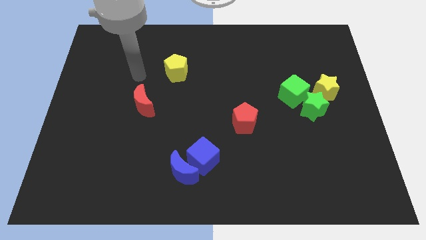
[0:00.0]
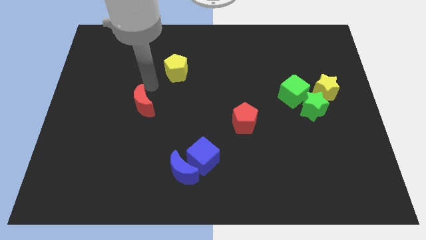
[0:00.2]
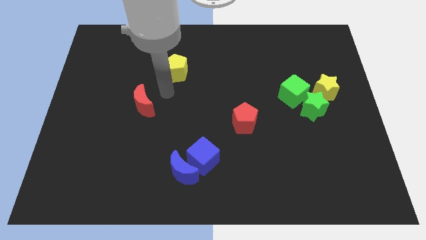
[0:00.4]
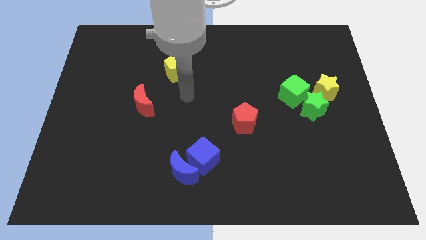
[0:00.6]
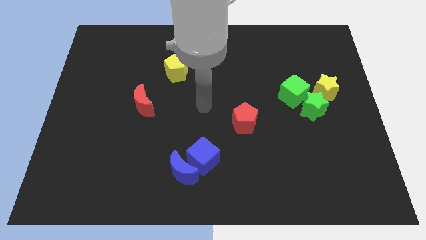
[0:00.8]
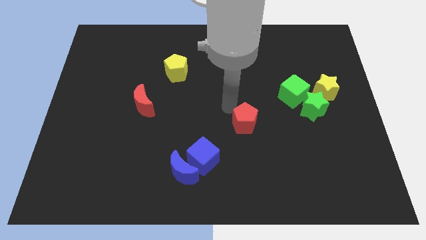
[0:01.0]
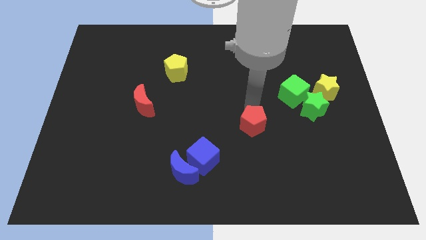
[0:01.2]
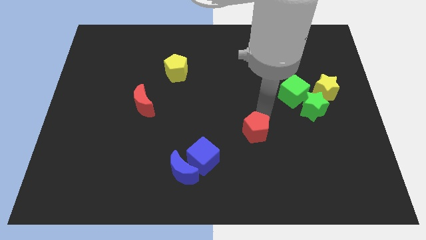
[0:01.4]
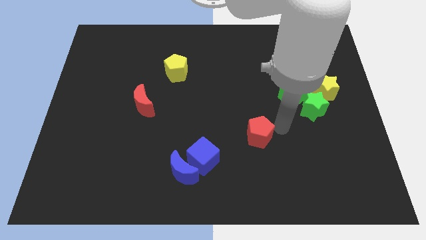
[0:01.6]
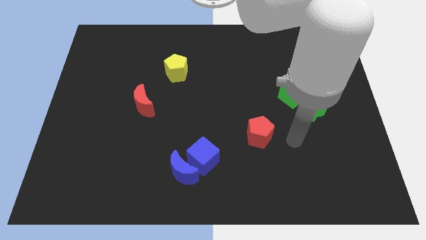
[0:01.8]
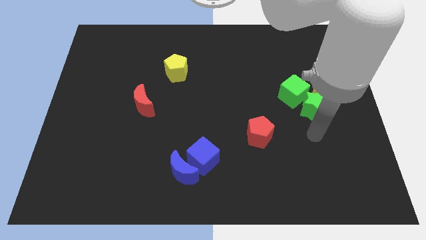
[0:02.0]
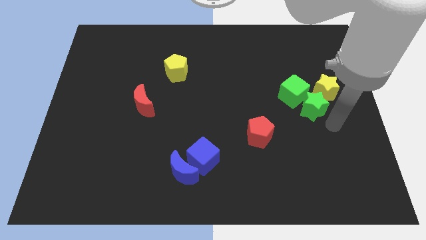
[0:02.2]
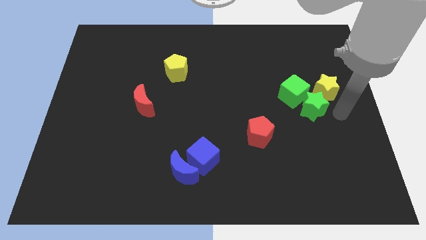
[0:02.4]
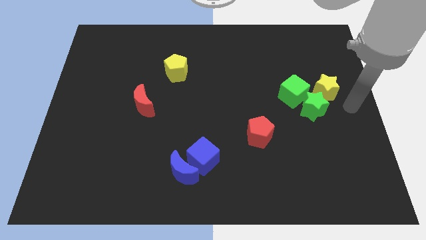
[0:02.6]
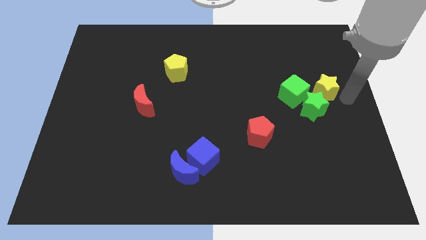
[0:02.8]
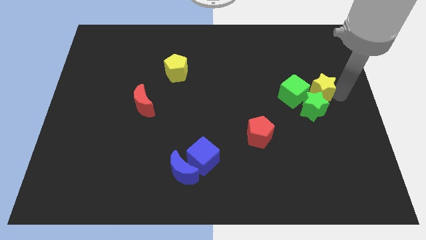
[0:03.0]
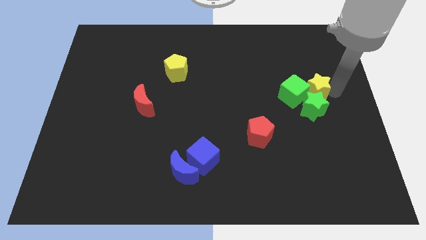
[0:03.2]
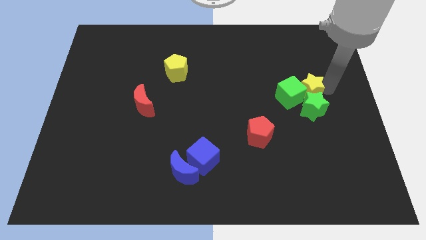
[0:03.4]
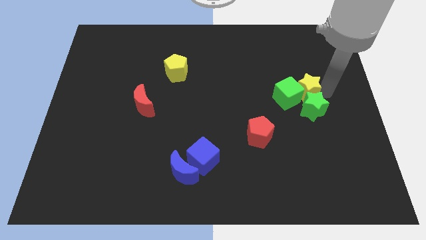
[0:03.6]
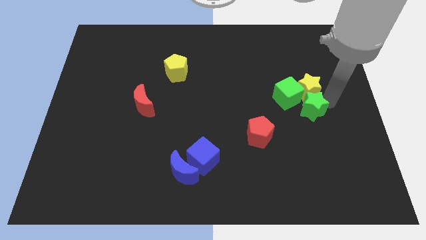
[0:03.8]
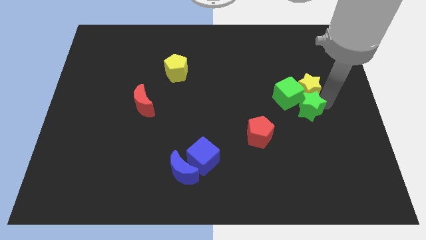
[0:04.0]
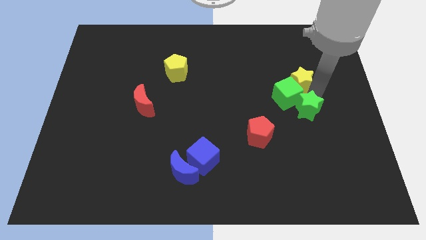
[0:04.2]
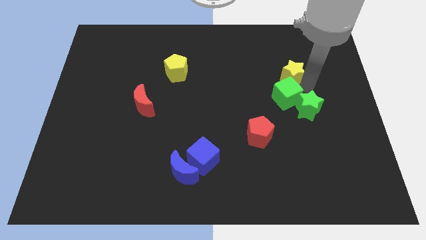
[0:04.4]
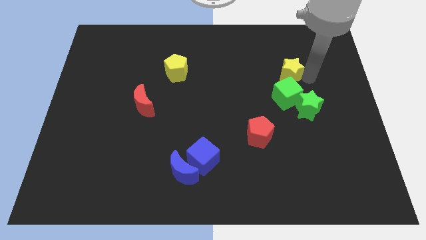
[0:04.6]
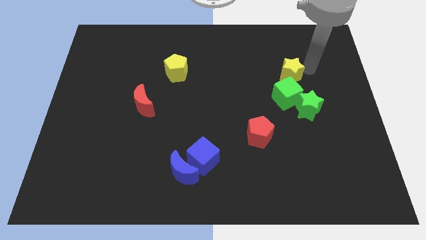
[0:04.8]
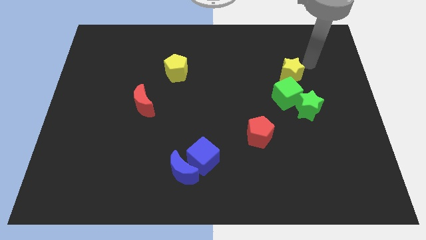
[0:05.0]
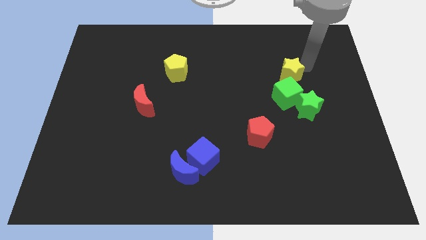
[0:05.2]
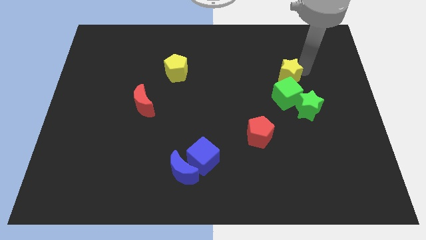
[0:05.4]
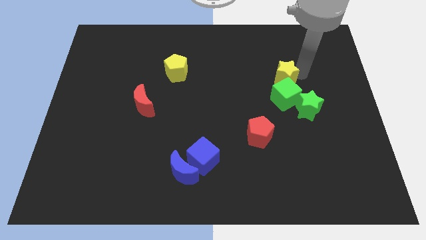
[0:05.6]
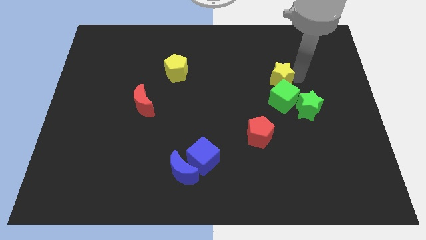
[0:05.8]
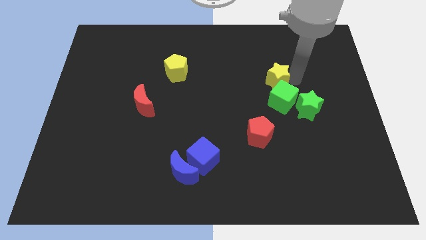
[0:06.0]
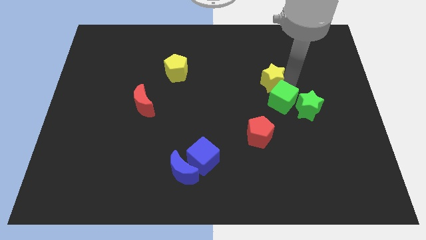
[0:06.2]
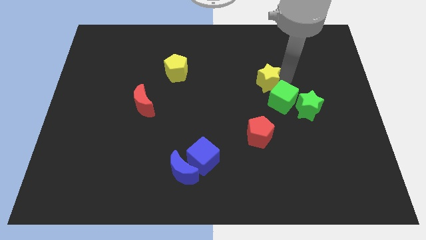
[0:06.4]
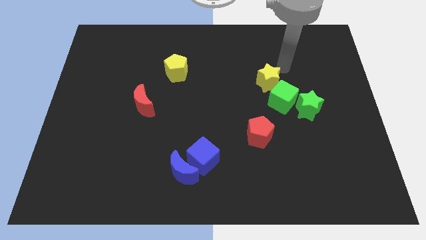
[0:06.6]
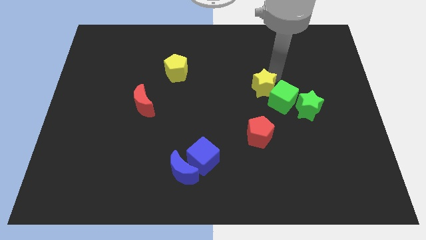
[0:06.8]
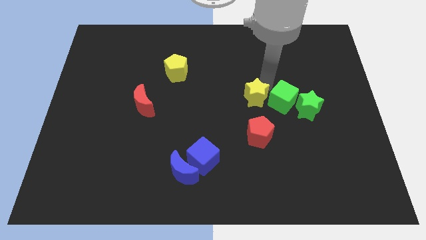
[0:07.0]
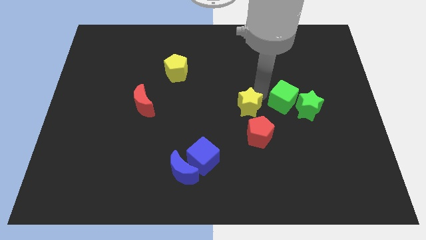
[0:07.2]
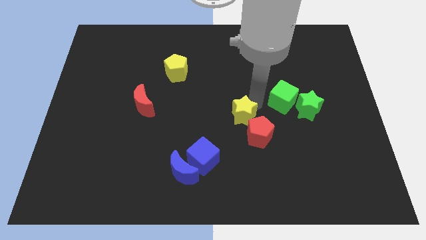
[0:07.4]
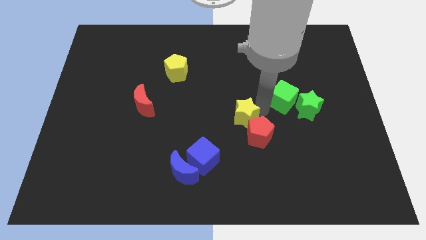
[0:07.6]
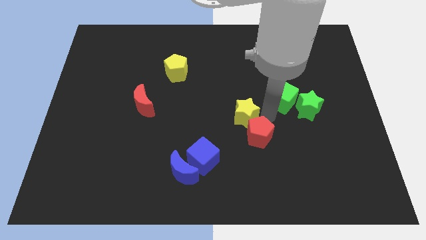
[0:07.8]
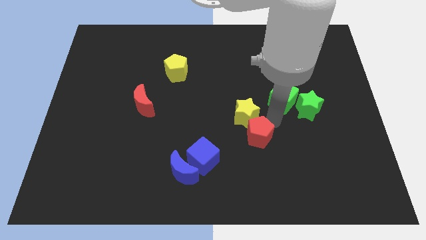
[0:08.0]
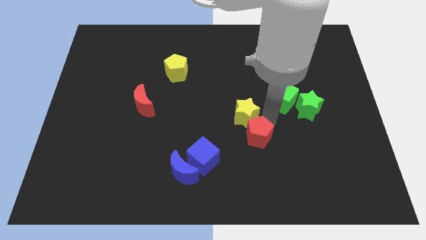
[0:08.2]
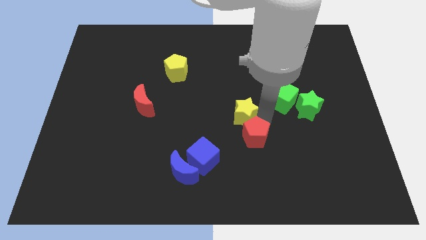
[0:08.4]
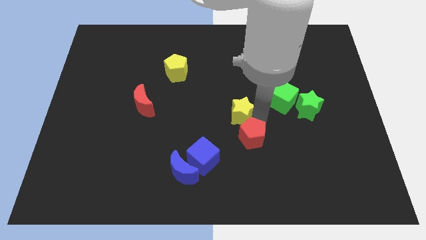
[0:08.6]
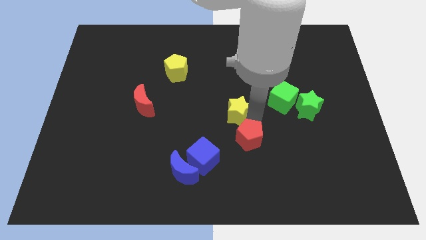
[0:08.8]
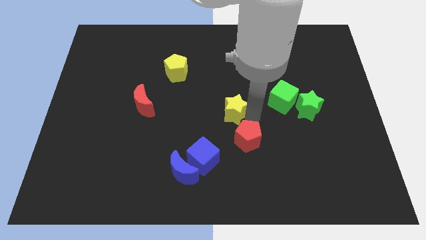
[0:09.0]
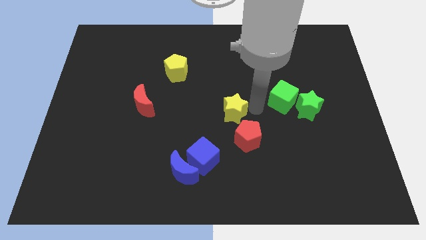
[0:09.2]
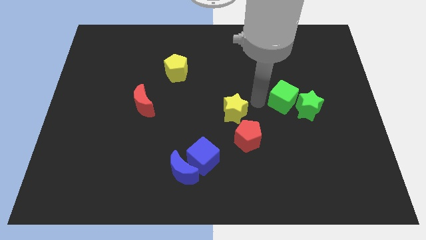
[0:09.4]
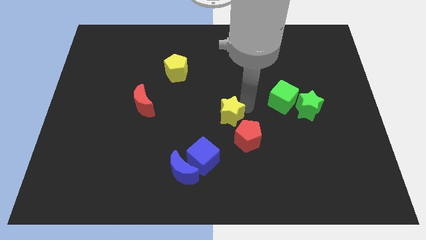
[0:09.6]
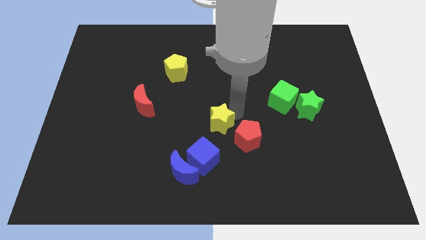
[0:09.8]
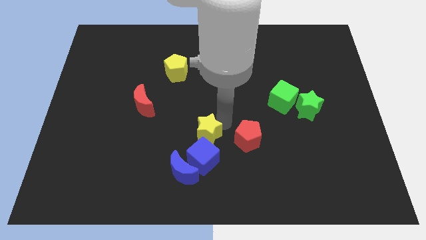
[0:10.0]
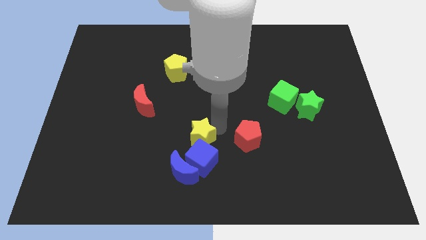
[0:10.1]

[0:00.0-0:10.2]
put the yellow star to the top left side of the blue cube

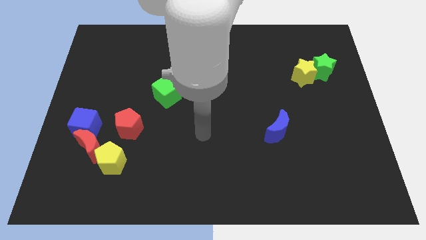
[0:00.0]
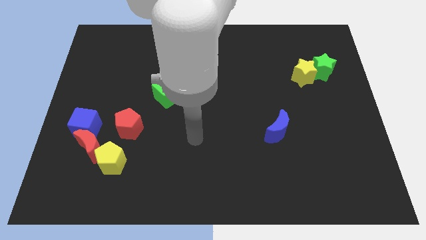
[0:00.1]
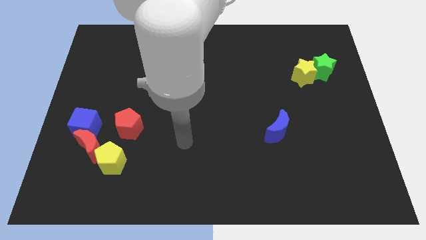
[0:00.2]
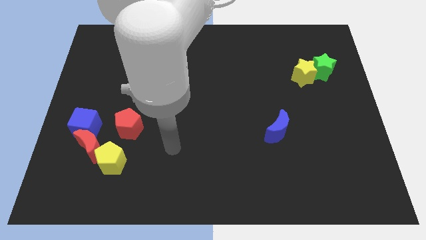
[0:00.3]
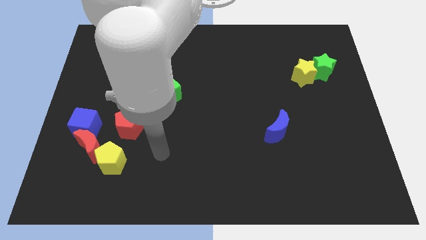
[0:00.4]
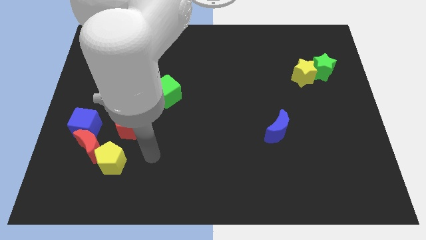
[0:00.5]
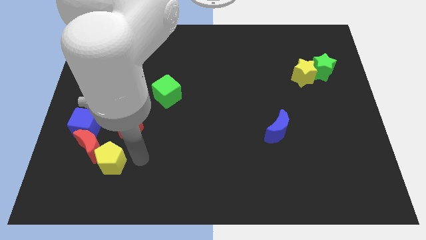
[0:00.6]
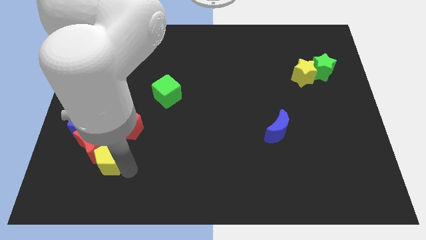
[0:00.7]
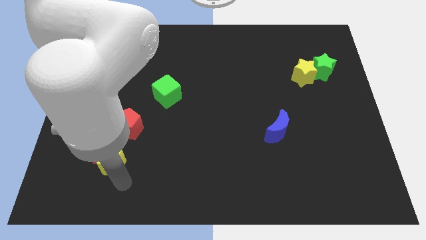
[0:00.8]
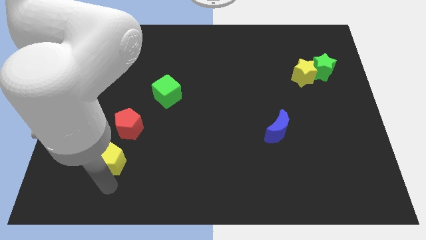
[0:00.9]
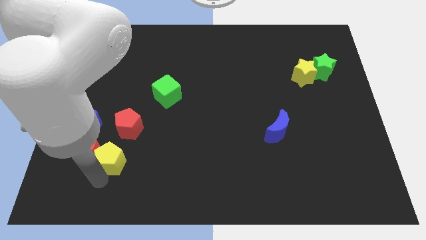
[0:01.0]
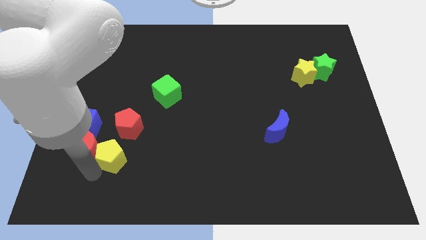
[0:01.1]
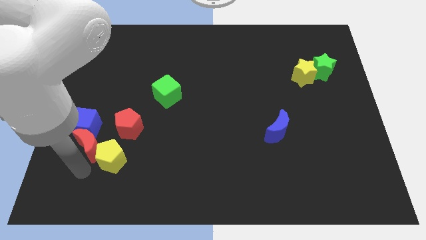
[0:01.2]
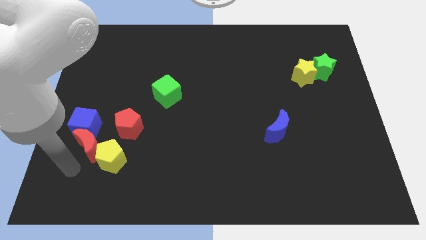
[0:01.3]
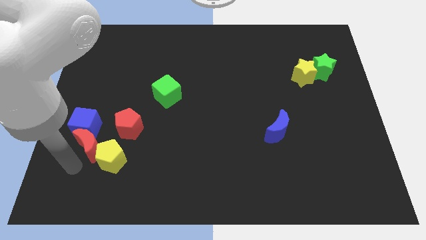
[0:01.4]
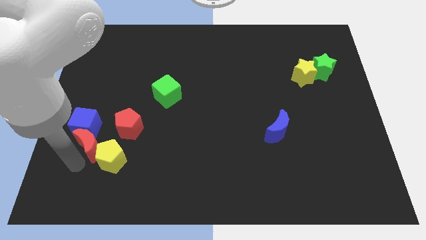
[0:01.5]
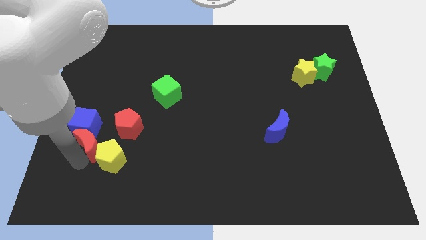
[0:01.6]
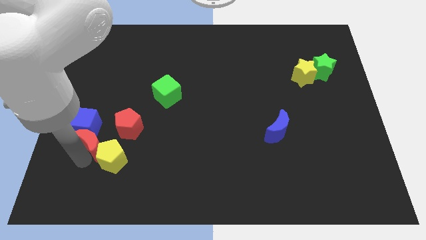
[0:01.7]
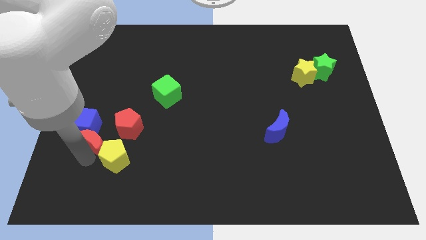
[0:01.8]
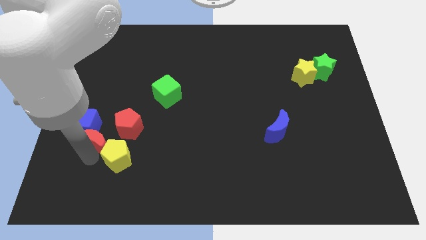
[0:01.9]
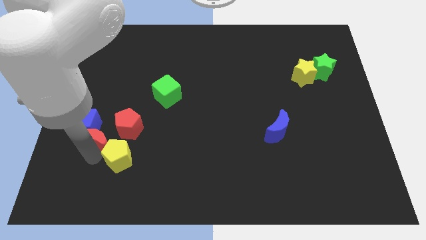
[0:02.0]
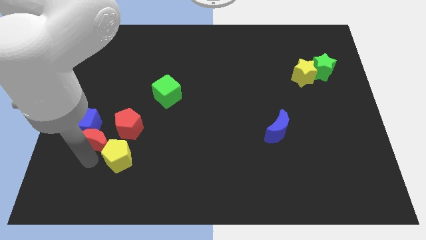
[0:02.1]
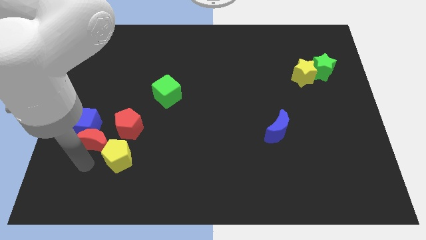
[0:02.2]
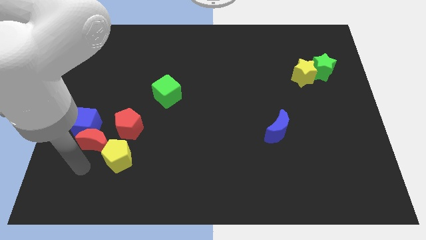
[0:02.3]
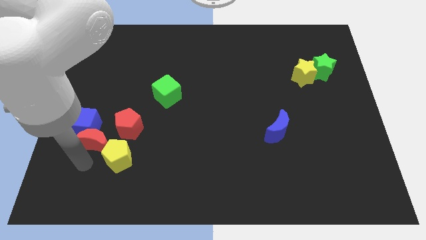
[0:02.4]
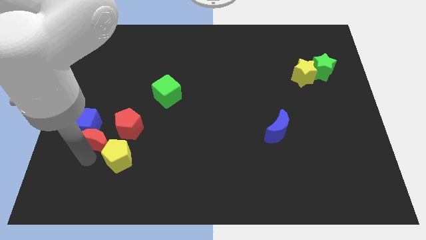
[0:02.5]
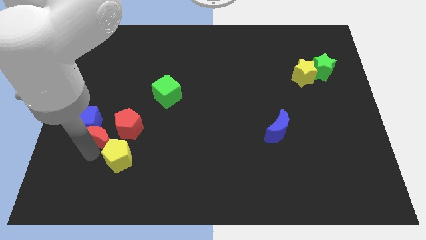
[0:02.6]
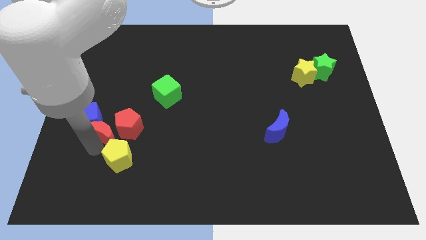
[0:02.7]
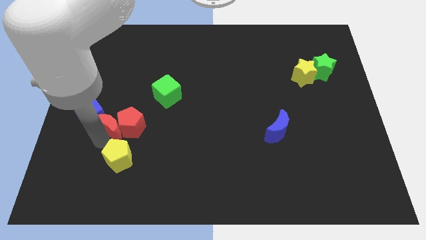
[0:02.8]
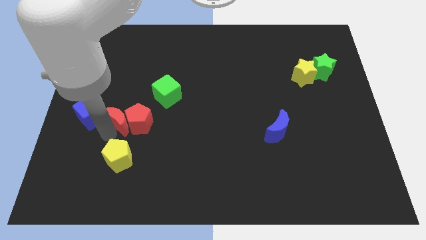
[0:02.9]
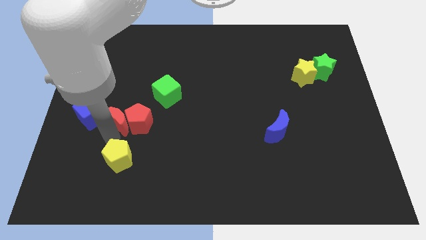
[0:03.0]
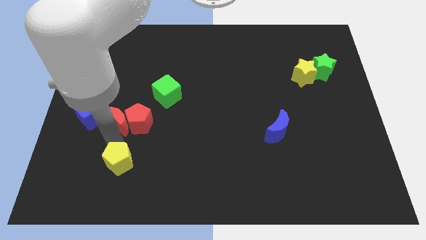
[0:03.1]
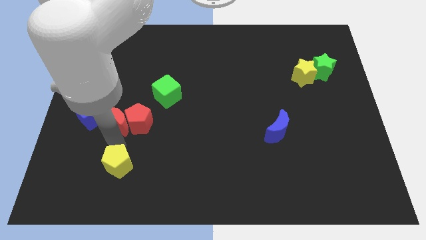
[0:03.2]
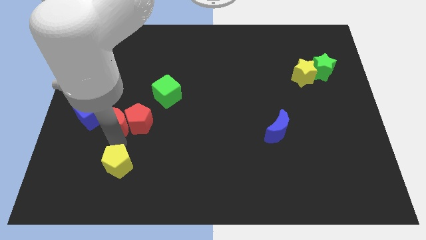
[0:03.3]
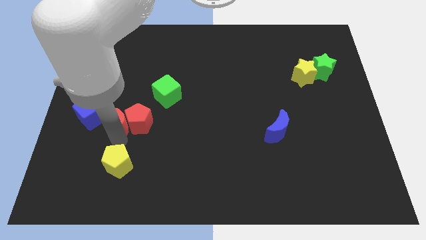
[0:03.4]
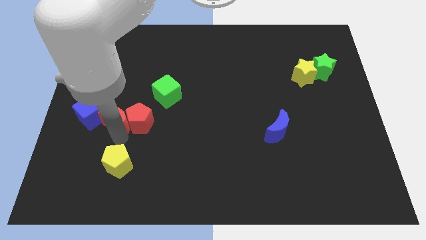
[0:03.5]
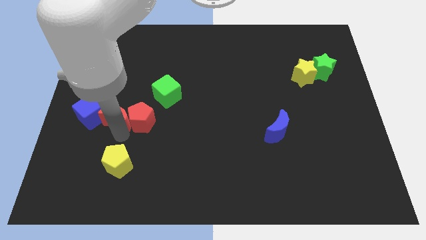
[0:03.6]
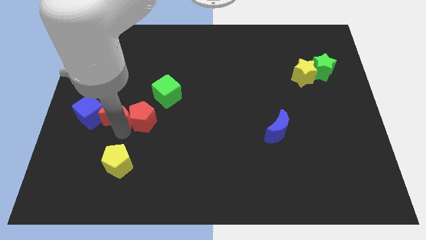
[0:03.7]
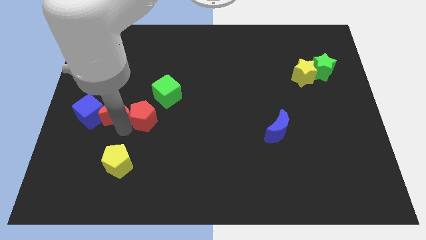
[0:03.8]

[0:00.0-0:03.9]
slide the red moon to the top right of the blue cube
